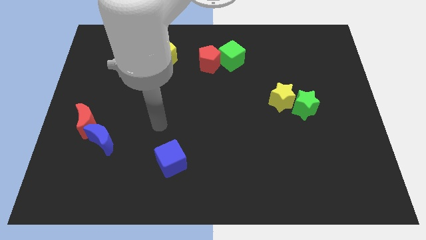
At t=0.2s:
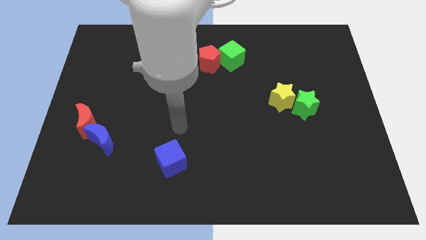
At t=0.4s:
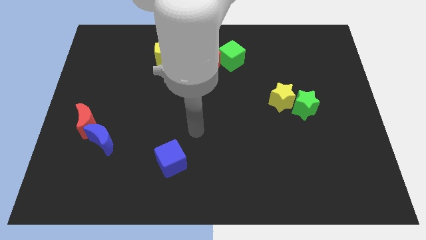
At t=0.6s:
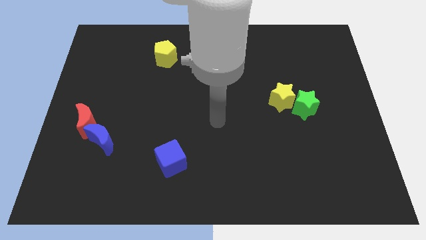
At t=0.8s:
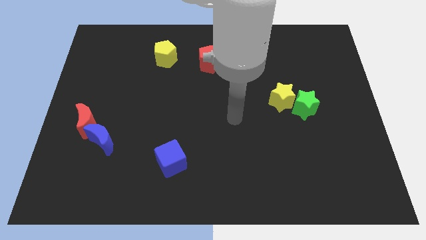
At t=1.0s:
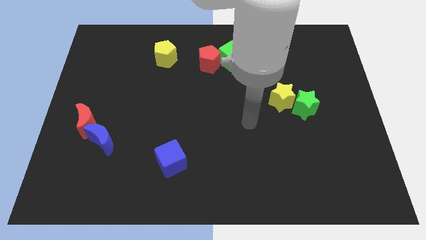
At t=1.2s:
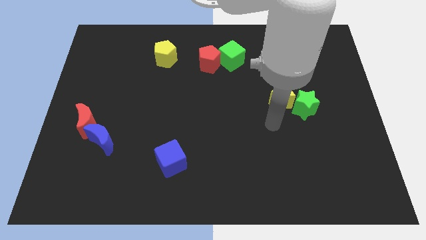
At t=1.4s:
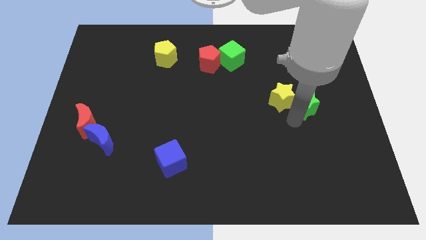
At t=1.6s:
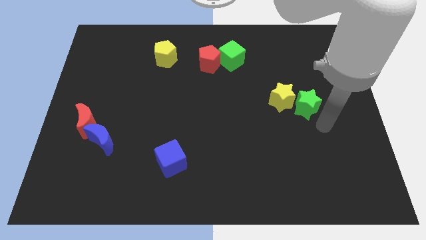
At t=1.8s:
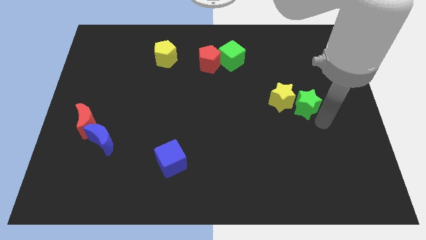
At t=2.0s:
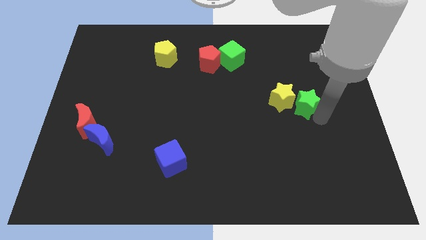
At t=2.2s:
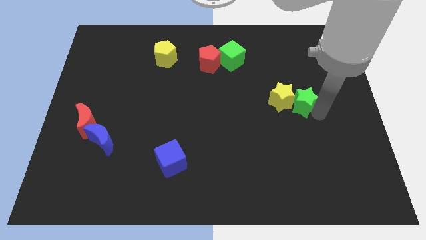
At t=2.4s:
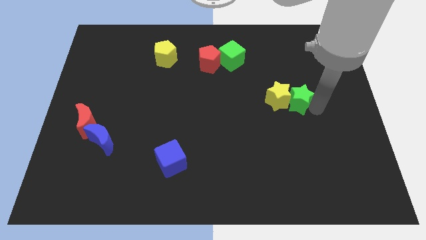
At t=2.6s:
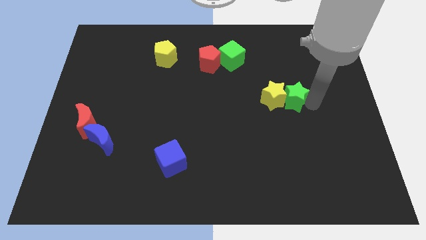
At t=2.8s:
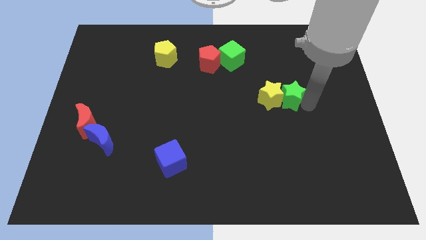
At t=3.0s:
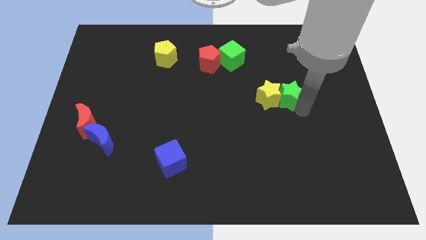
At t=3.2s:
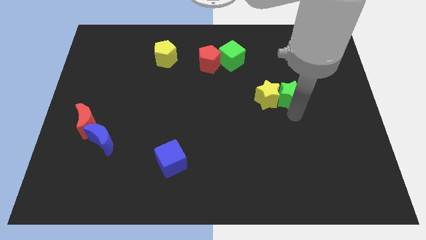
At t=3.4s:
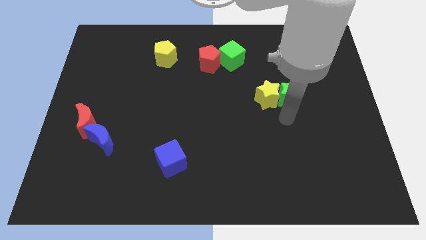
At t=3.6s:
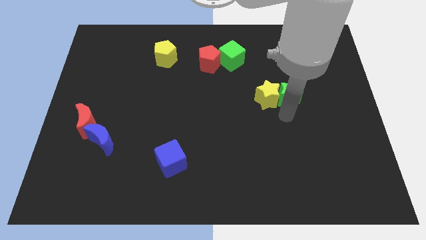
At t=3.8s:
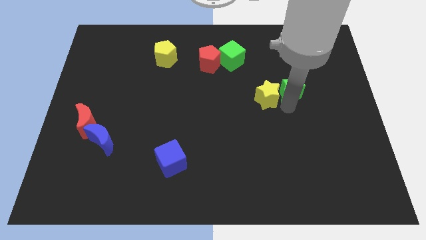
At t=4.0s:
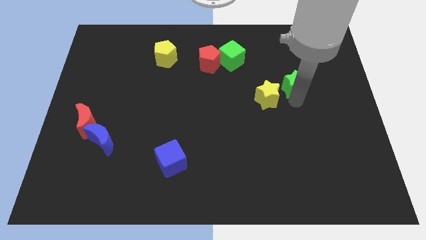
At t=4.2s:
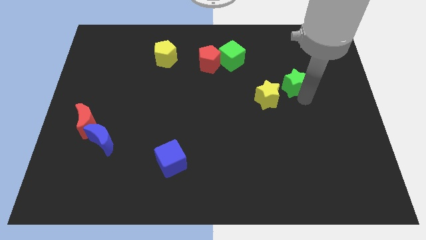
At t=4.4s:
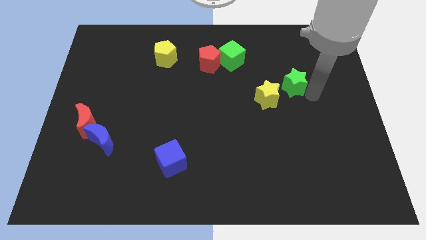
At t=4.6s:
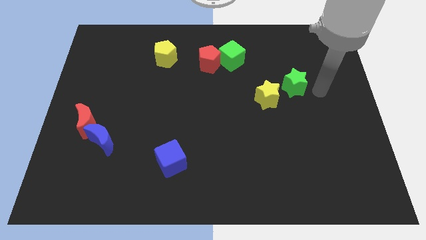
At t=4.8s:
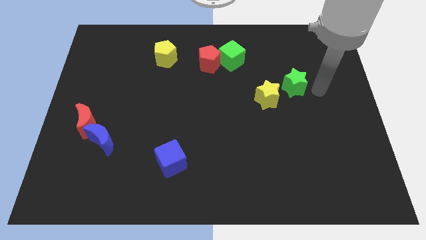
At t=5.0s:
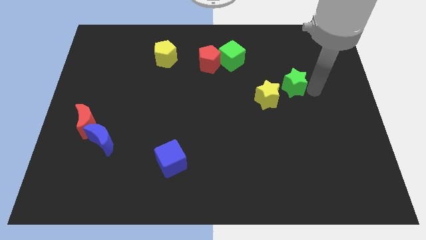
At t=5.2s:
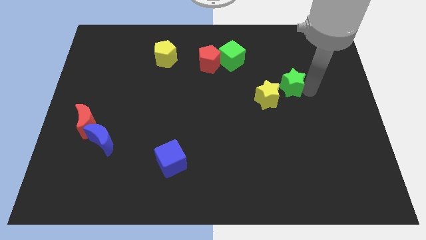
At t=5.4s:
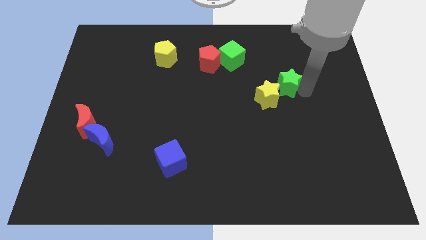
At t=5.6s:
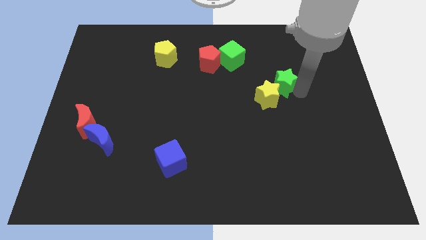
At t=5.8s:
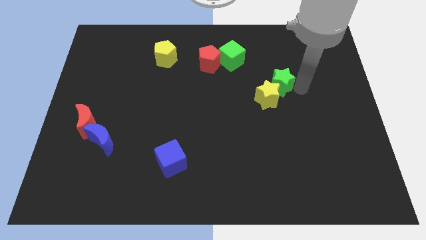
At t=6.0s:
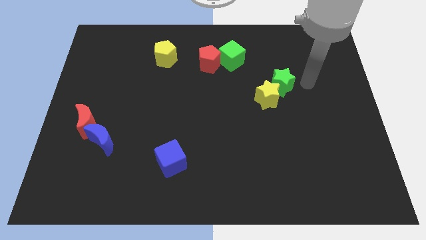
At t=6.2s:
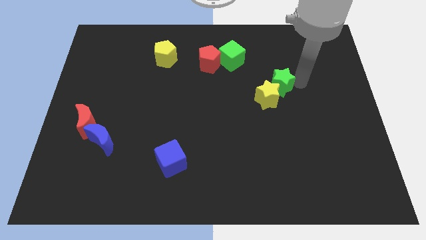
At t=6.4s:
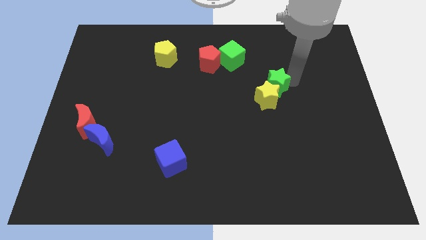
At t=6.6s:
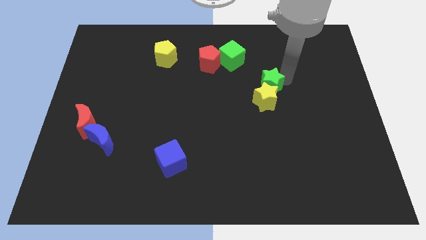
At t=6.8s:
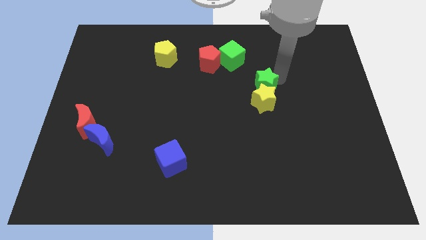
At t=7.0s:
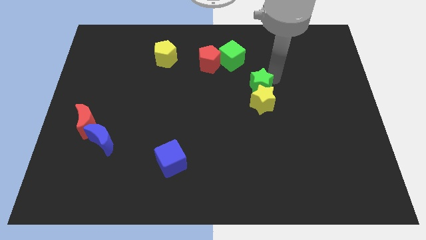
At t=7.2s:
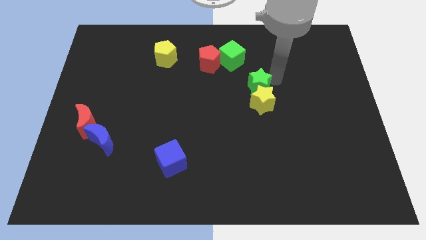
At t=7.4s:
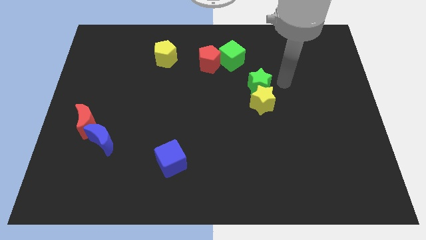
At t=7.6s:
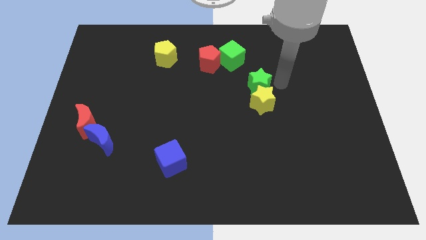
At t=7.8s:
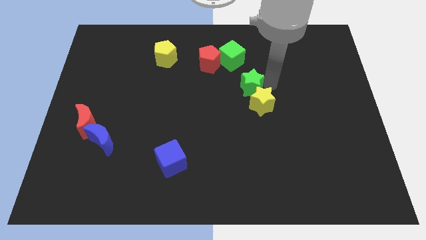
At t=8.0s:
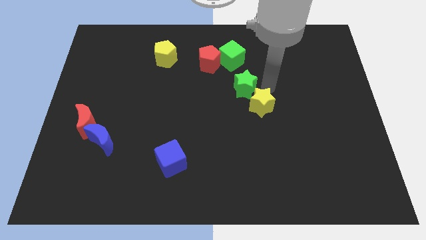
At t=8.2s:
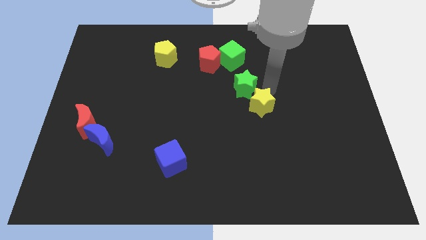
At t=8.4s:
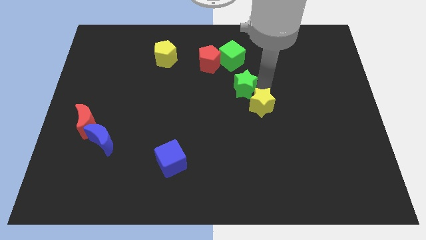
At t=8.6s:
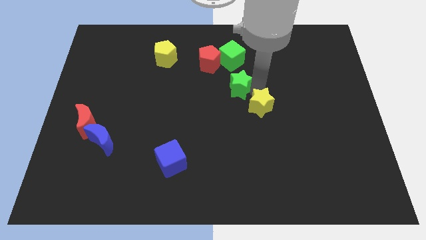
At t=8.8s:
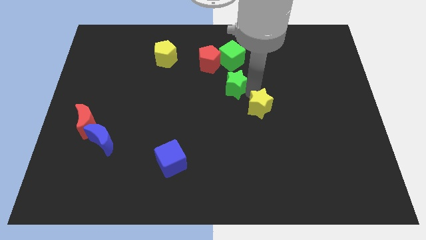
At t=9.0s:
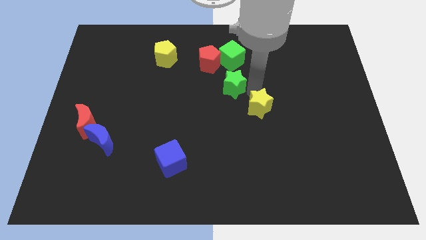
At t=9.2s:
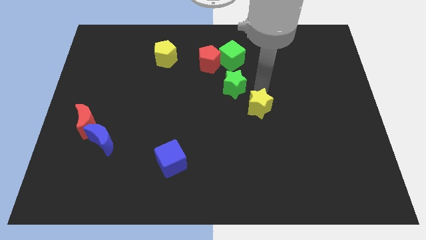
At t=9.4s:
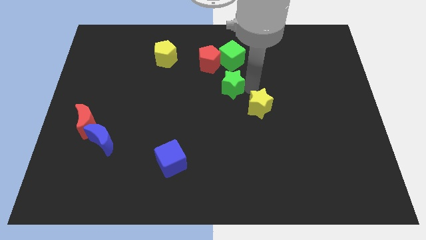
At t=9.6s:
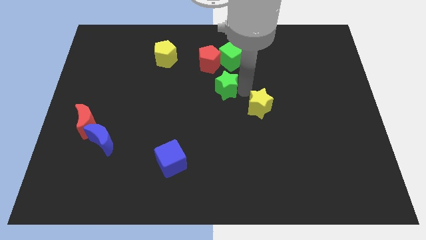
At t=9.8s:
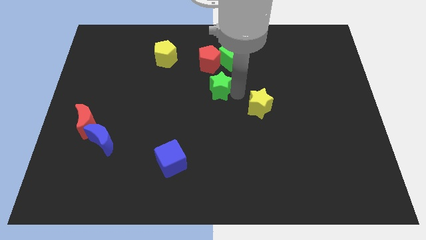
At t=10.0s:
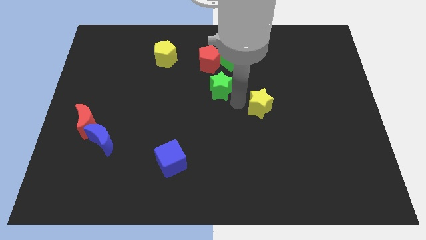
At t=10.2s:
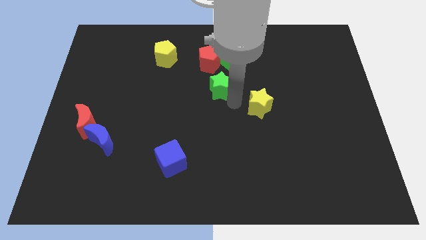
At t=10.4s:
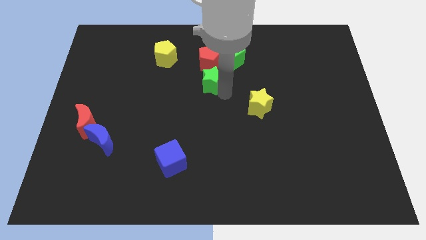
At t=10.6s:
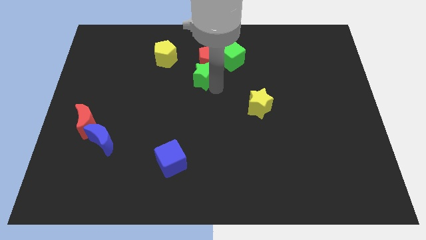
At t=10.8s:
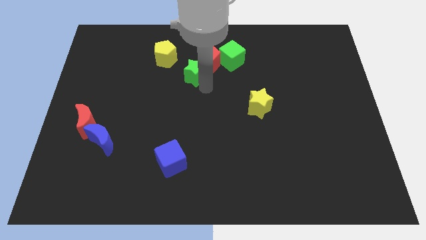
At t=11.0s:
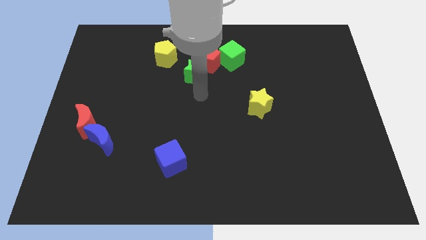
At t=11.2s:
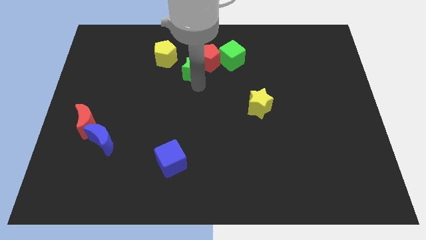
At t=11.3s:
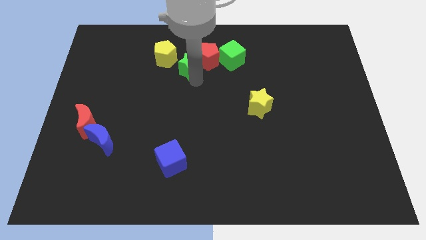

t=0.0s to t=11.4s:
slide the green star left of the green cube

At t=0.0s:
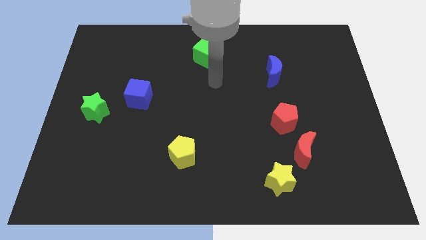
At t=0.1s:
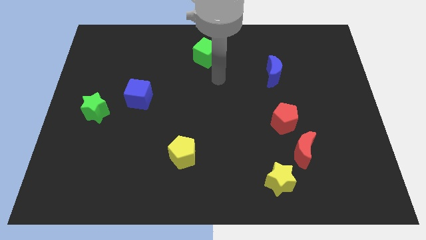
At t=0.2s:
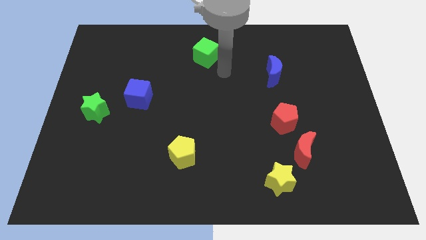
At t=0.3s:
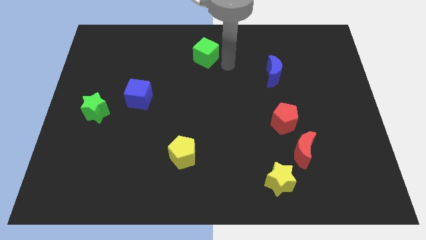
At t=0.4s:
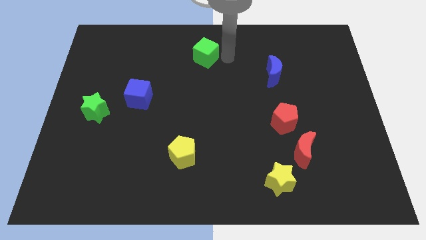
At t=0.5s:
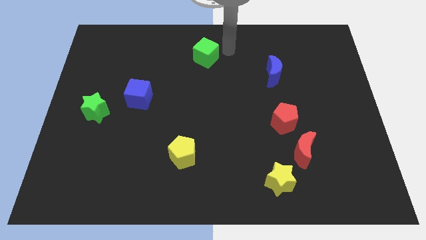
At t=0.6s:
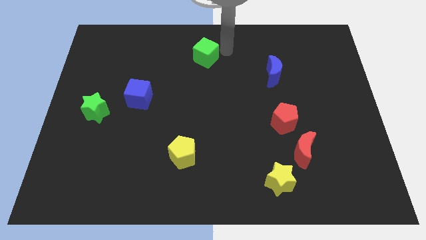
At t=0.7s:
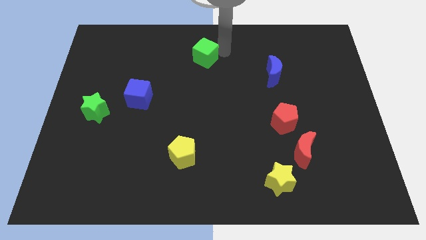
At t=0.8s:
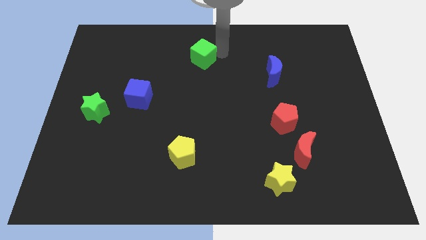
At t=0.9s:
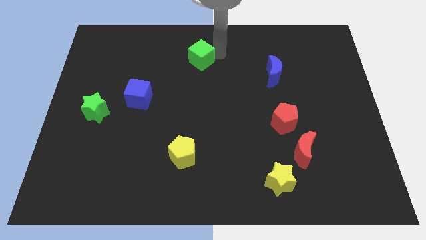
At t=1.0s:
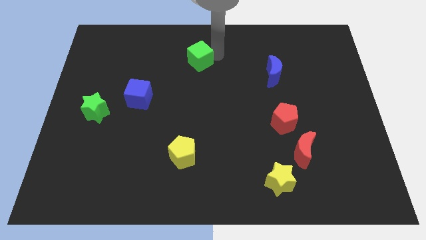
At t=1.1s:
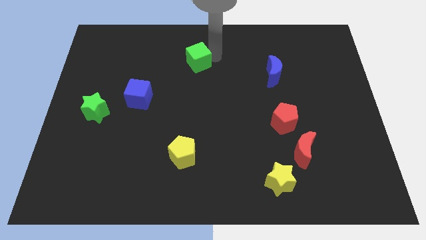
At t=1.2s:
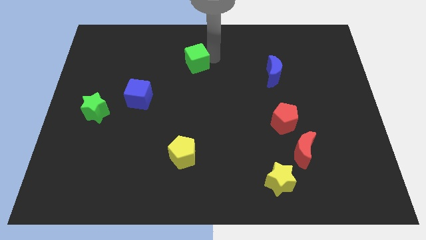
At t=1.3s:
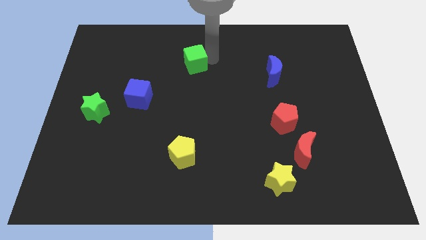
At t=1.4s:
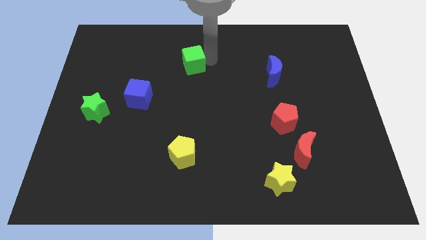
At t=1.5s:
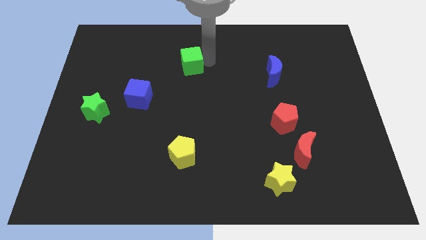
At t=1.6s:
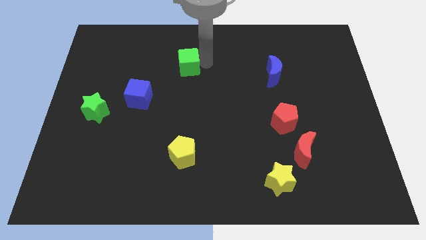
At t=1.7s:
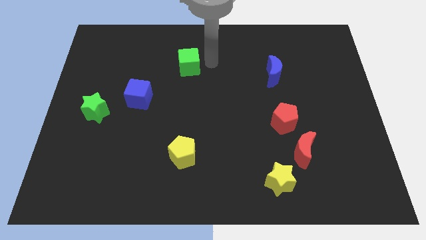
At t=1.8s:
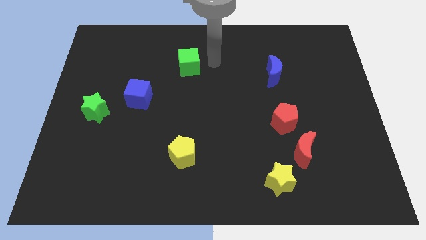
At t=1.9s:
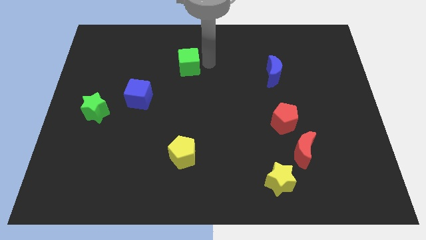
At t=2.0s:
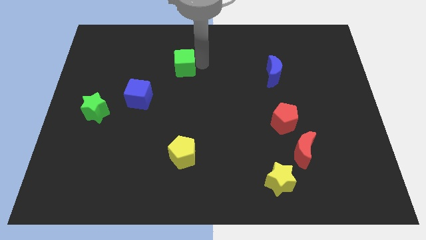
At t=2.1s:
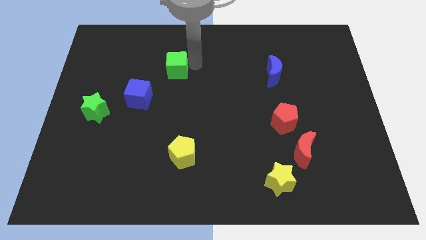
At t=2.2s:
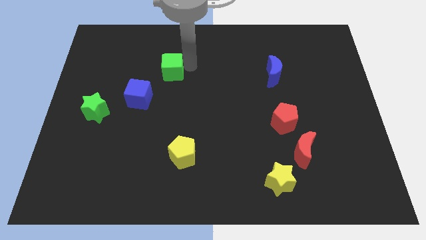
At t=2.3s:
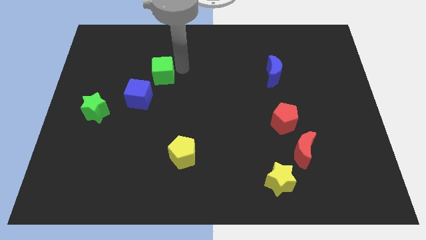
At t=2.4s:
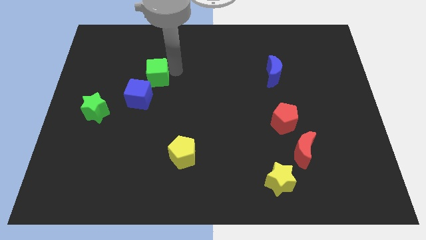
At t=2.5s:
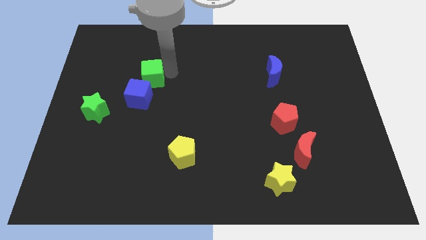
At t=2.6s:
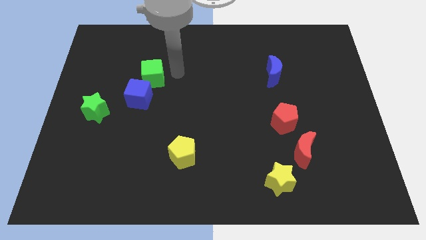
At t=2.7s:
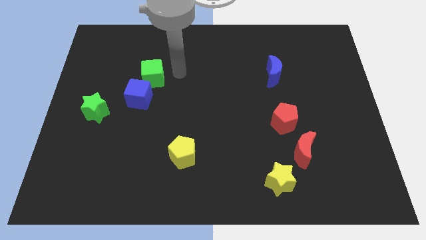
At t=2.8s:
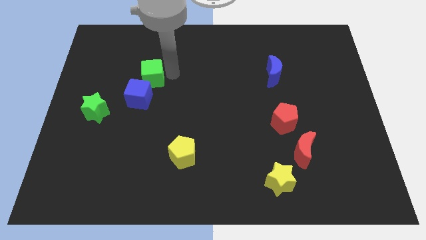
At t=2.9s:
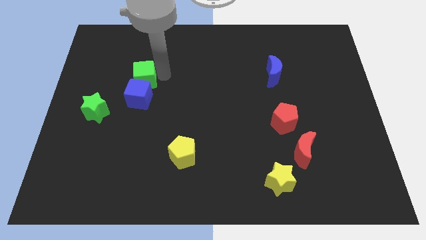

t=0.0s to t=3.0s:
put the green cube diagonally up and to the left of the blue cube
